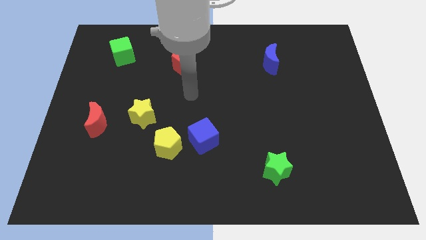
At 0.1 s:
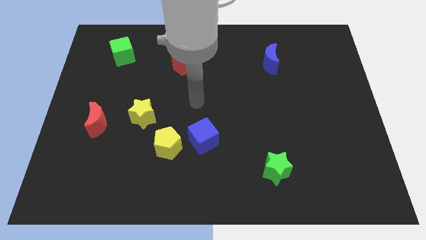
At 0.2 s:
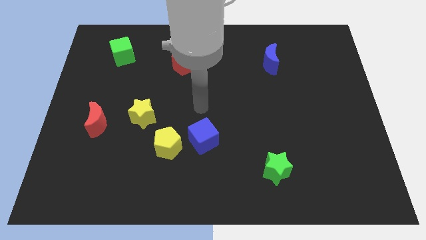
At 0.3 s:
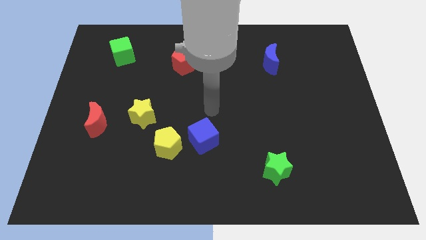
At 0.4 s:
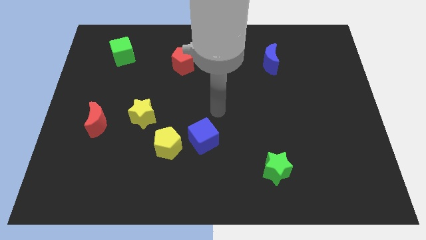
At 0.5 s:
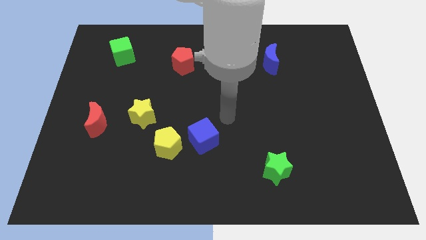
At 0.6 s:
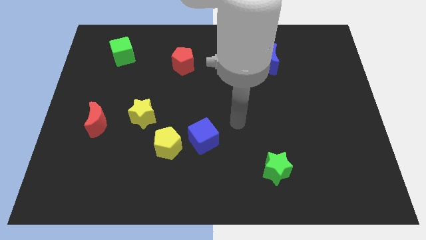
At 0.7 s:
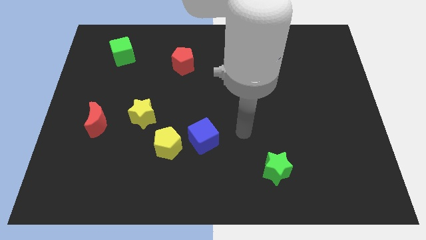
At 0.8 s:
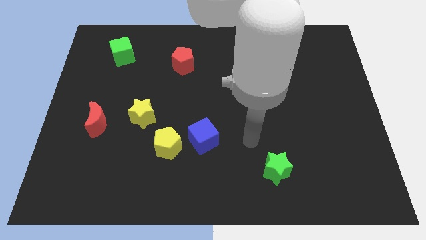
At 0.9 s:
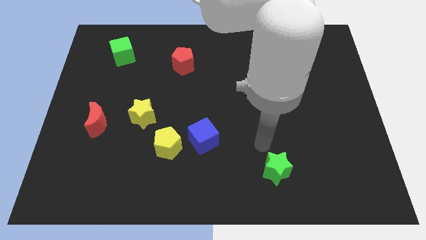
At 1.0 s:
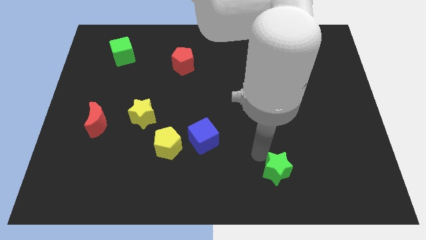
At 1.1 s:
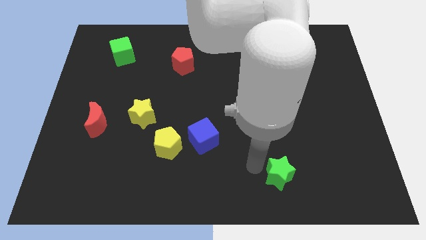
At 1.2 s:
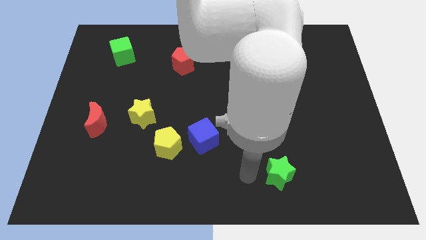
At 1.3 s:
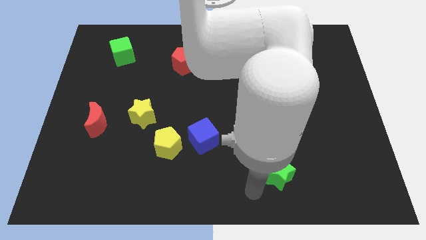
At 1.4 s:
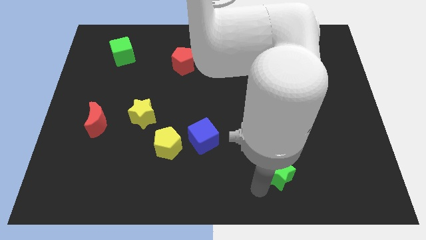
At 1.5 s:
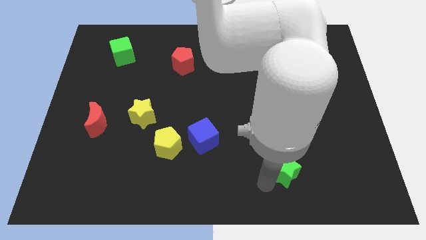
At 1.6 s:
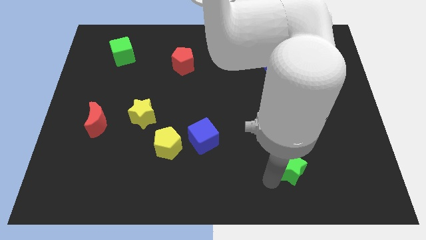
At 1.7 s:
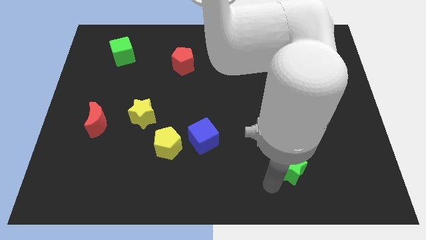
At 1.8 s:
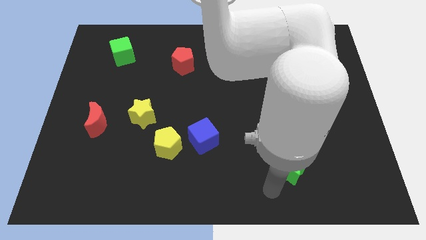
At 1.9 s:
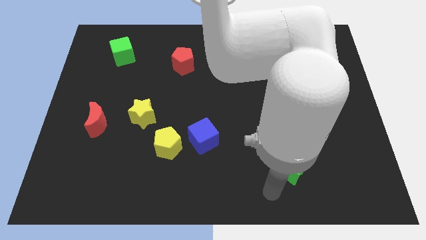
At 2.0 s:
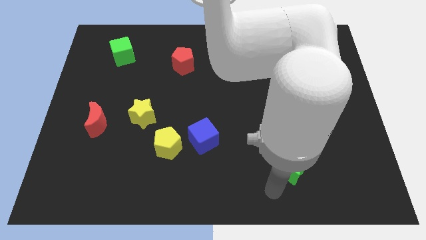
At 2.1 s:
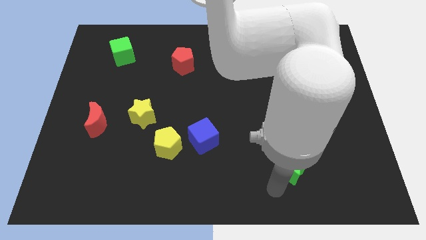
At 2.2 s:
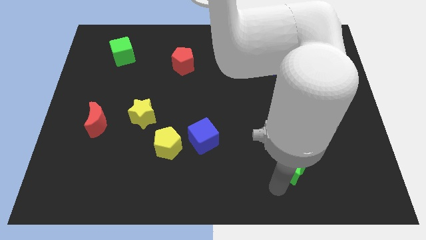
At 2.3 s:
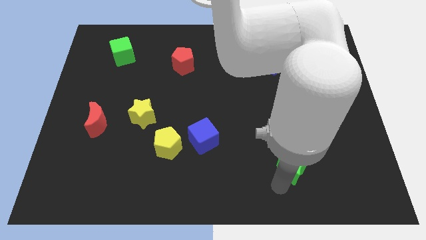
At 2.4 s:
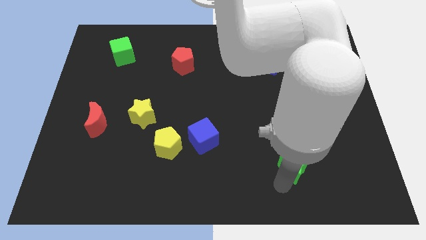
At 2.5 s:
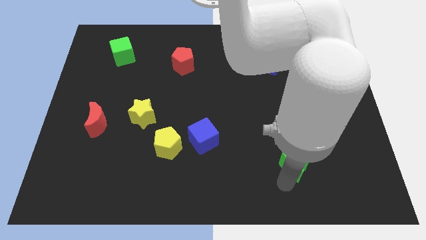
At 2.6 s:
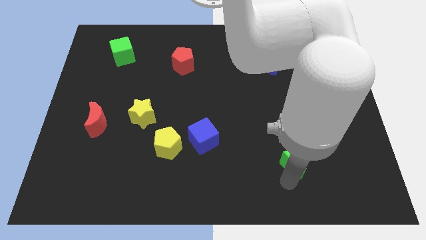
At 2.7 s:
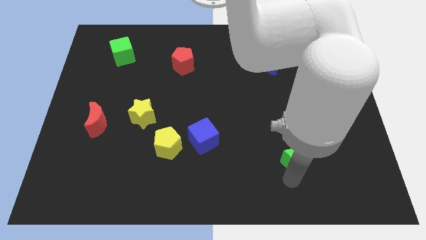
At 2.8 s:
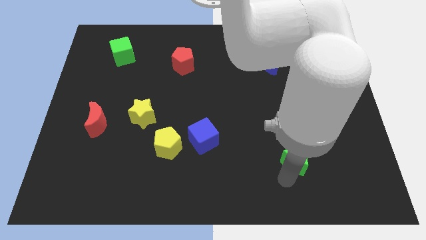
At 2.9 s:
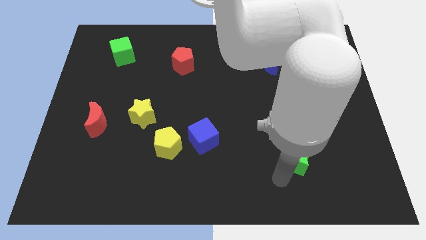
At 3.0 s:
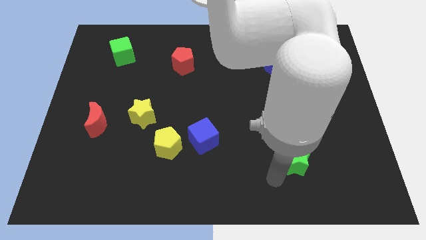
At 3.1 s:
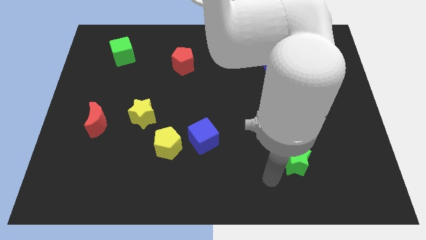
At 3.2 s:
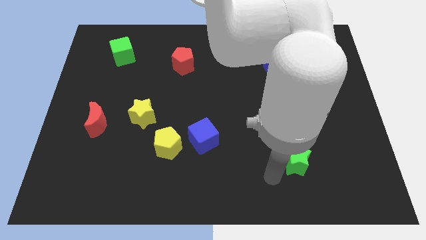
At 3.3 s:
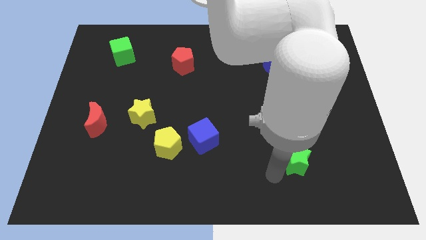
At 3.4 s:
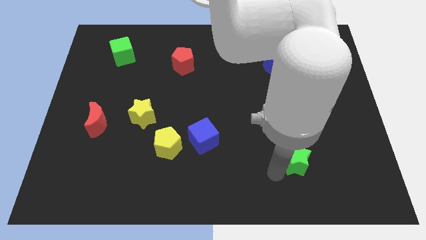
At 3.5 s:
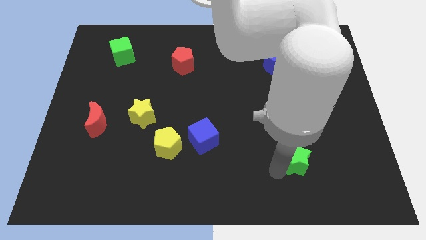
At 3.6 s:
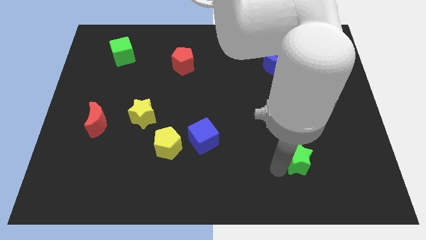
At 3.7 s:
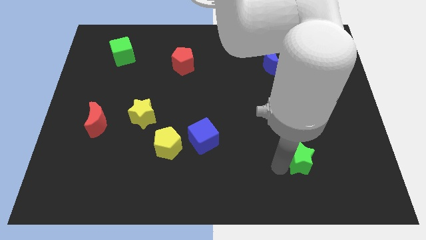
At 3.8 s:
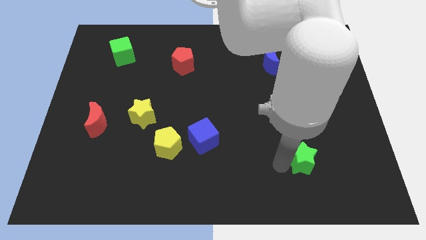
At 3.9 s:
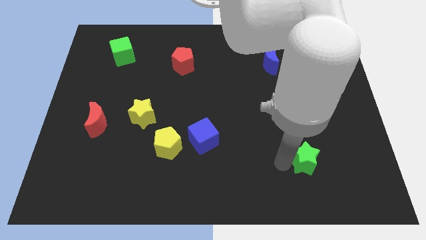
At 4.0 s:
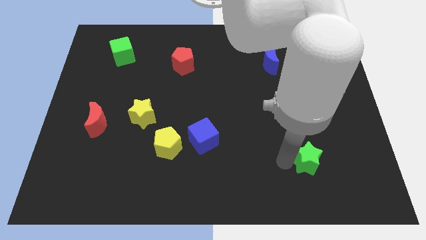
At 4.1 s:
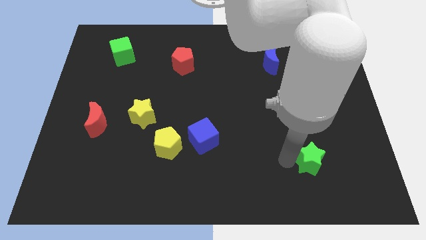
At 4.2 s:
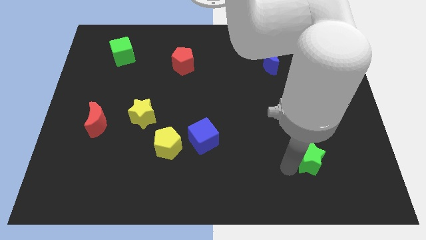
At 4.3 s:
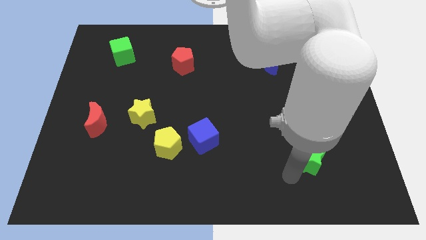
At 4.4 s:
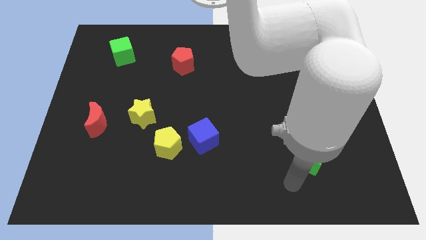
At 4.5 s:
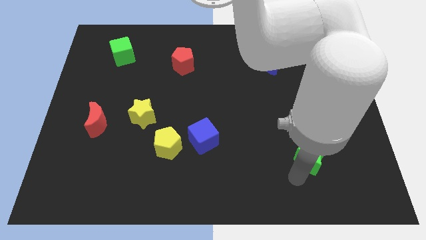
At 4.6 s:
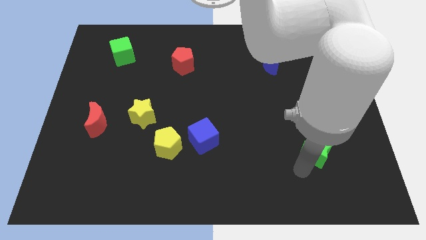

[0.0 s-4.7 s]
move the green star somewhat diagonally up and right

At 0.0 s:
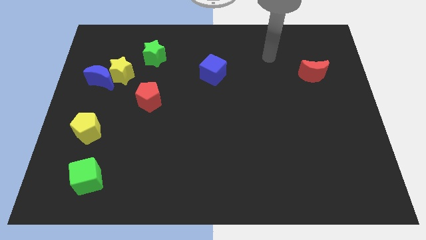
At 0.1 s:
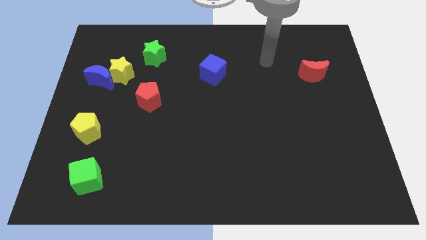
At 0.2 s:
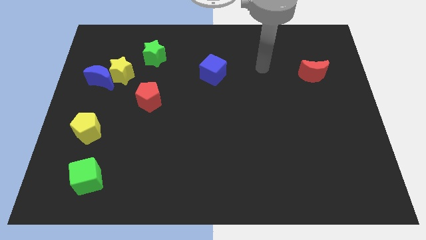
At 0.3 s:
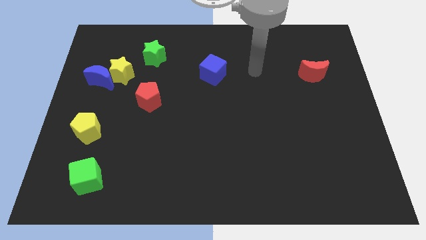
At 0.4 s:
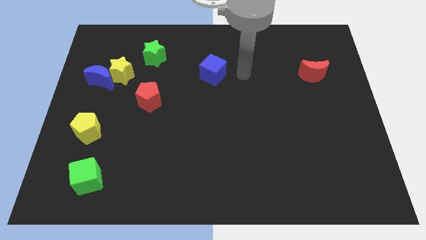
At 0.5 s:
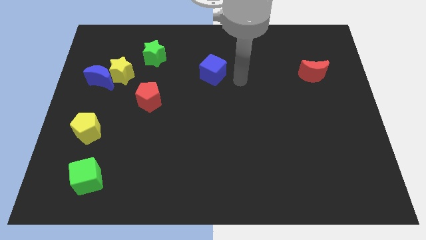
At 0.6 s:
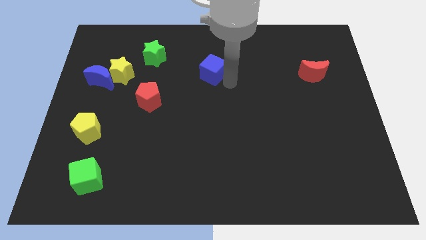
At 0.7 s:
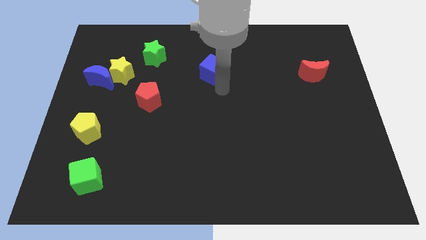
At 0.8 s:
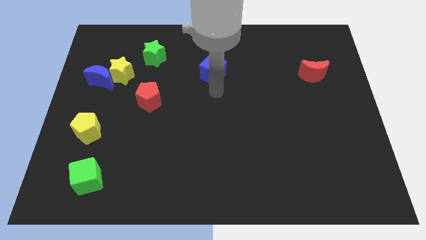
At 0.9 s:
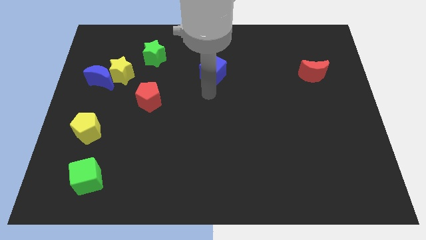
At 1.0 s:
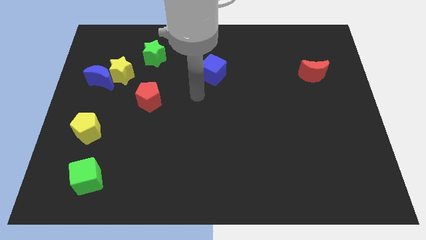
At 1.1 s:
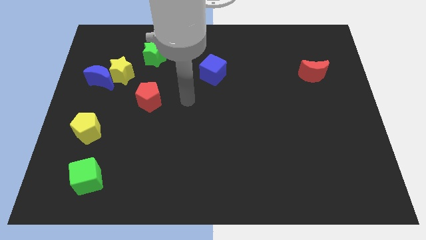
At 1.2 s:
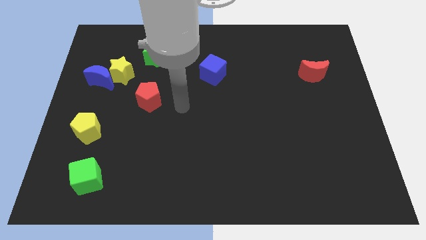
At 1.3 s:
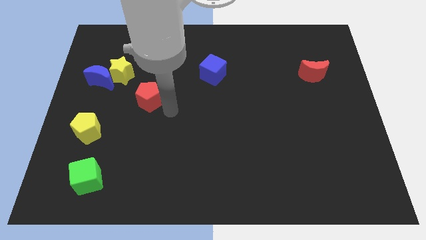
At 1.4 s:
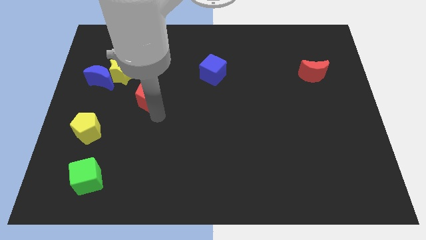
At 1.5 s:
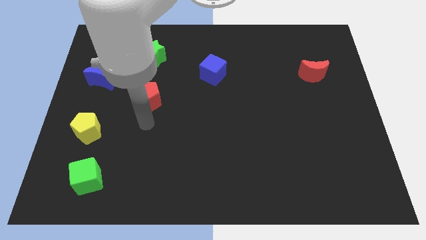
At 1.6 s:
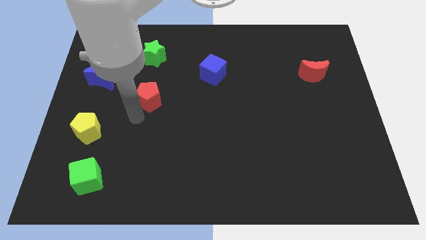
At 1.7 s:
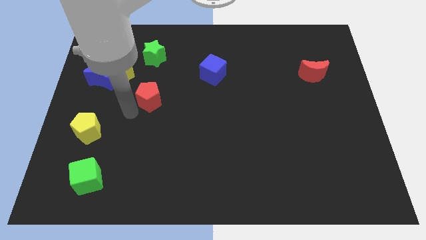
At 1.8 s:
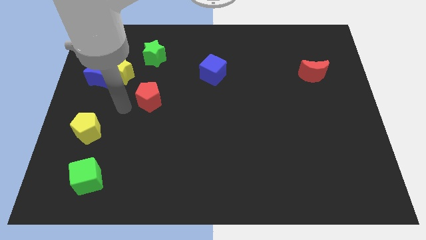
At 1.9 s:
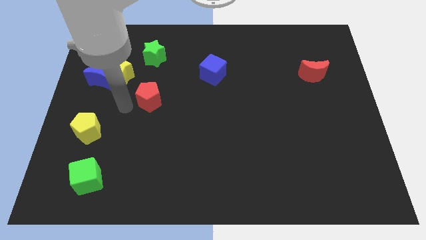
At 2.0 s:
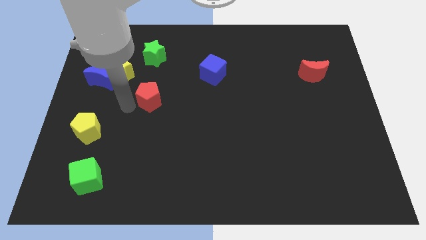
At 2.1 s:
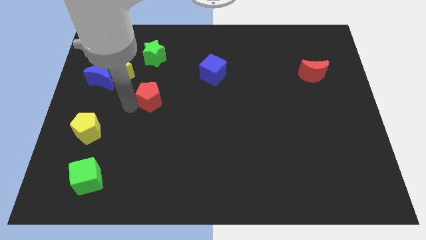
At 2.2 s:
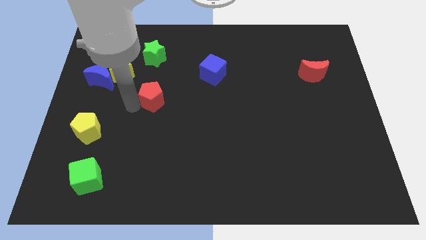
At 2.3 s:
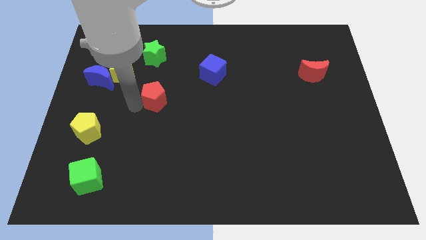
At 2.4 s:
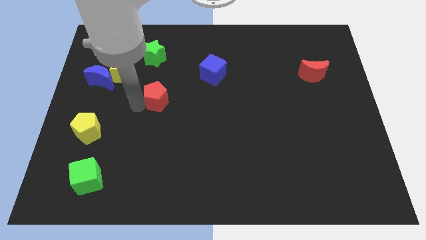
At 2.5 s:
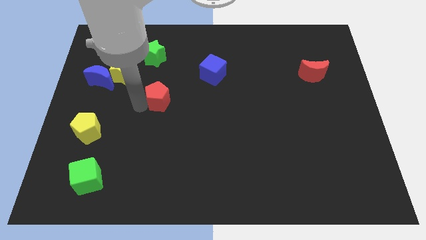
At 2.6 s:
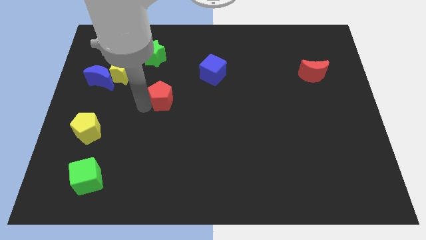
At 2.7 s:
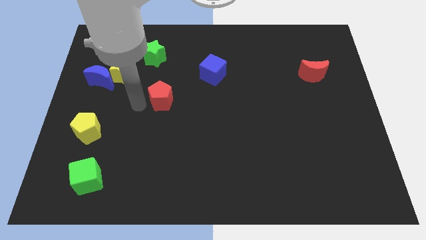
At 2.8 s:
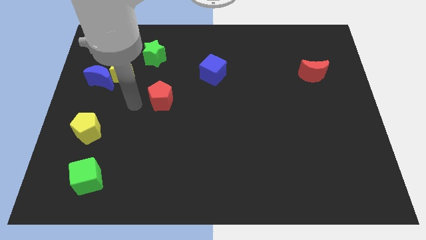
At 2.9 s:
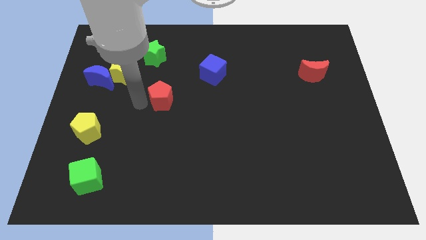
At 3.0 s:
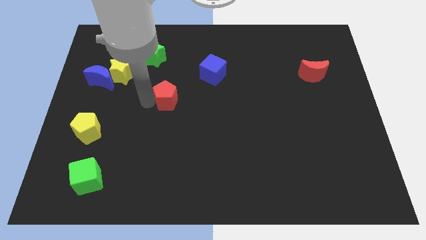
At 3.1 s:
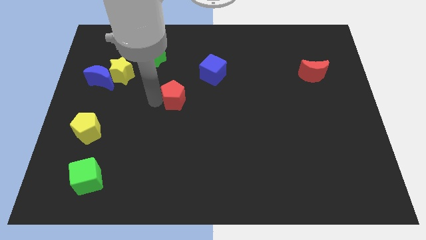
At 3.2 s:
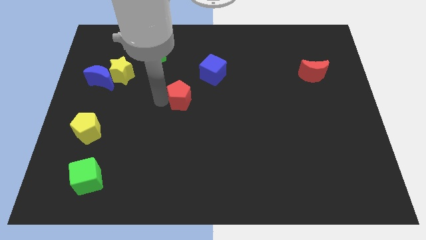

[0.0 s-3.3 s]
push the red pentagon somewhat right
